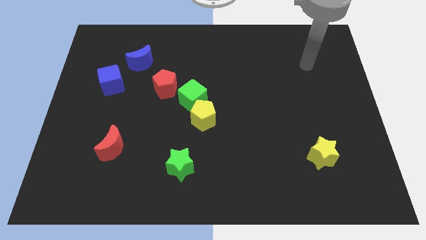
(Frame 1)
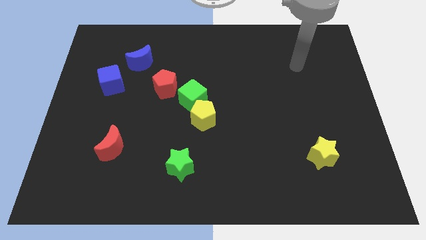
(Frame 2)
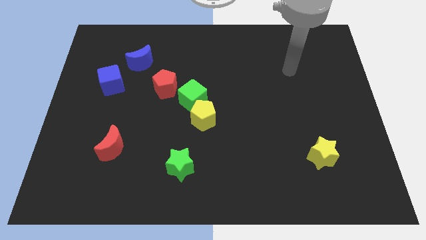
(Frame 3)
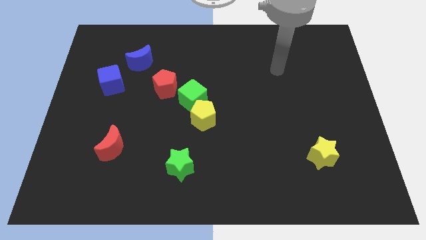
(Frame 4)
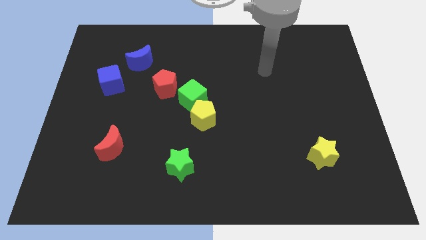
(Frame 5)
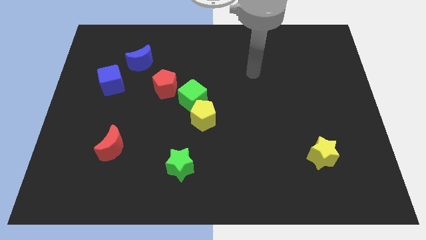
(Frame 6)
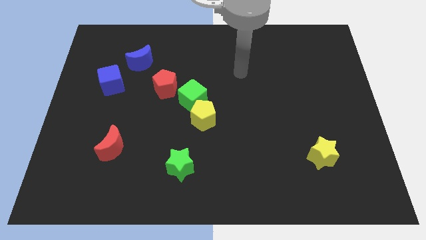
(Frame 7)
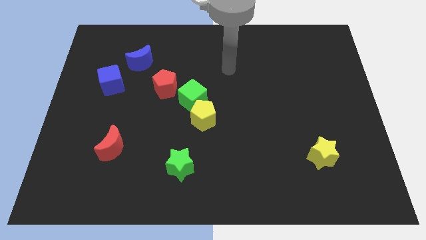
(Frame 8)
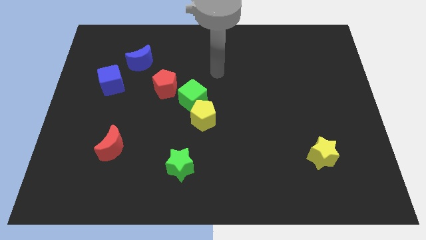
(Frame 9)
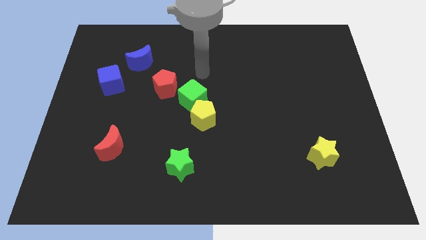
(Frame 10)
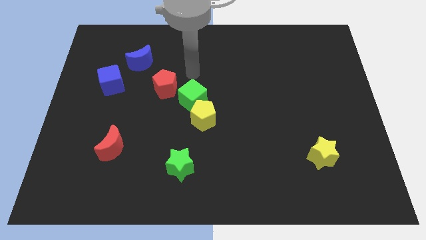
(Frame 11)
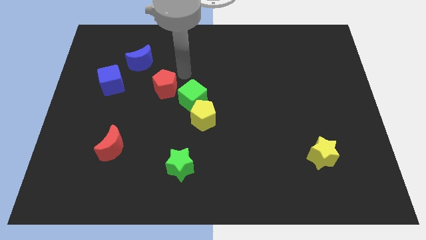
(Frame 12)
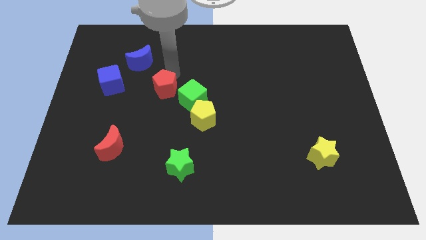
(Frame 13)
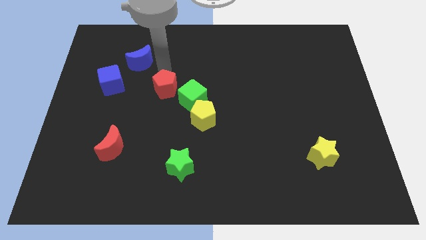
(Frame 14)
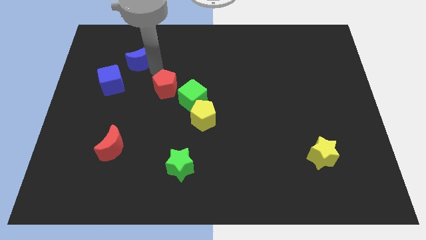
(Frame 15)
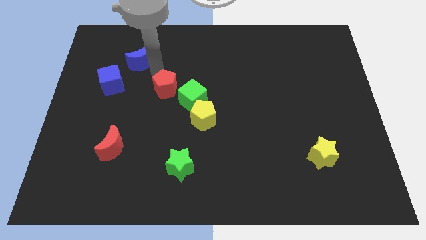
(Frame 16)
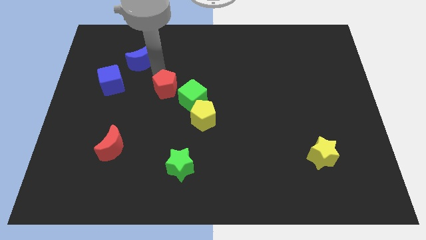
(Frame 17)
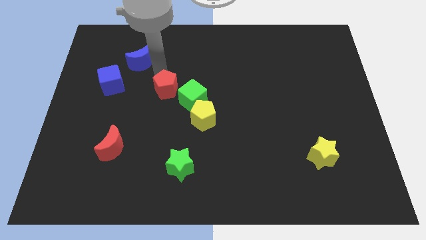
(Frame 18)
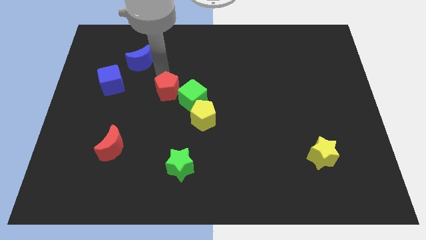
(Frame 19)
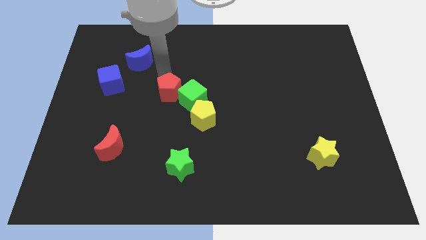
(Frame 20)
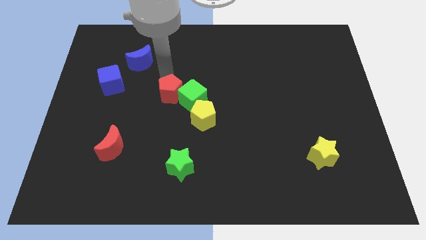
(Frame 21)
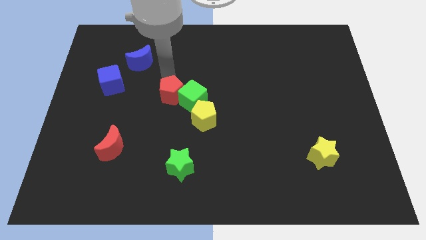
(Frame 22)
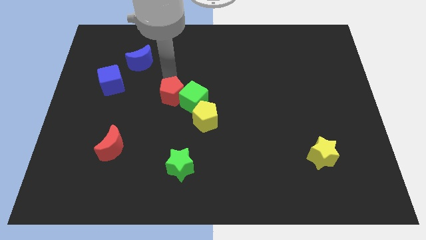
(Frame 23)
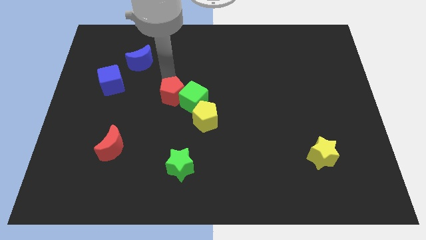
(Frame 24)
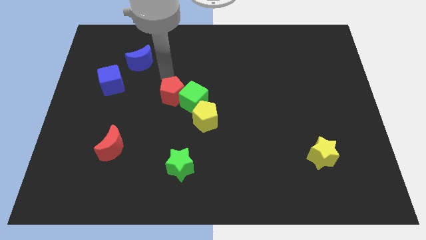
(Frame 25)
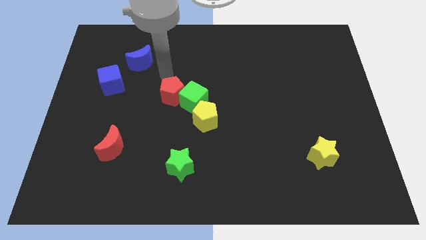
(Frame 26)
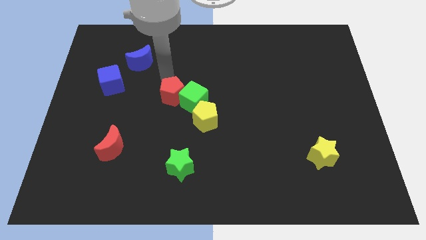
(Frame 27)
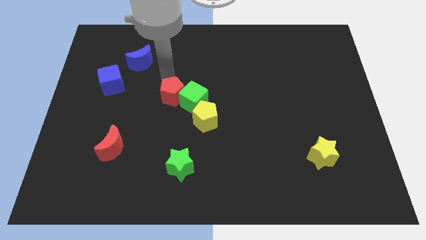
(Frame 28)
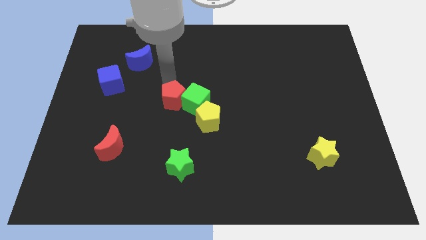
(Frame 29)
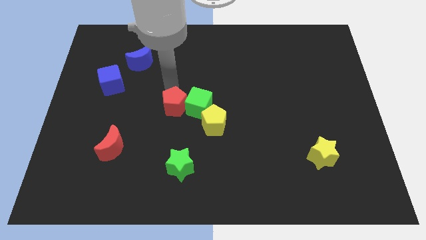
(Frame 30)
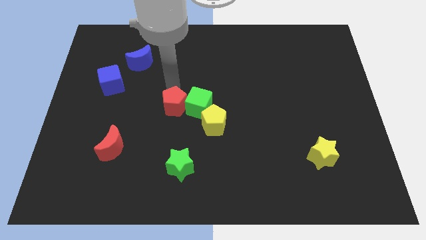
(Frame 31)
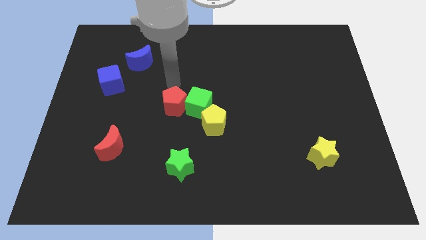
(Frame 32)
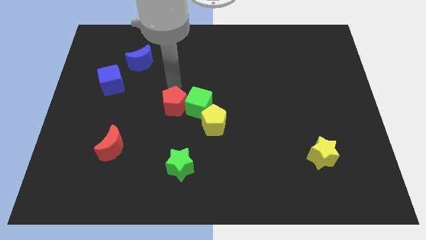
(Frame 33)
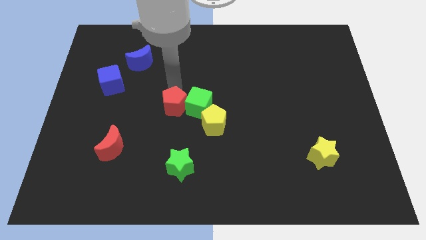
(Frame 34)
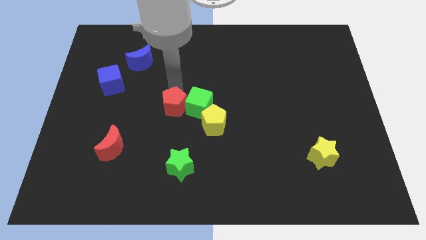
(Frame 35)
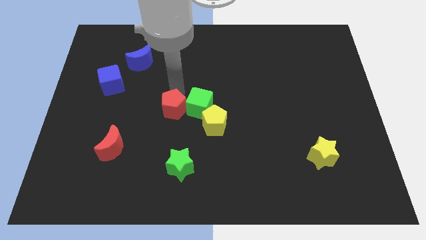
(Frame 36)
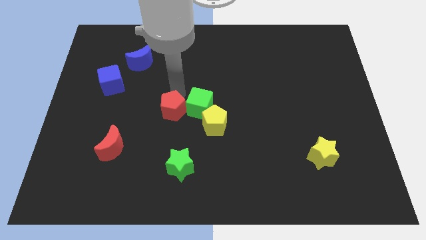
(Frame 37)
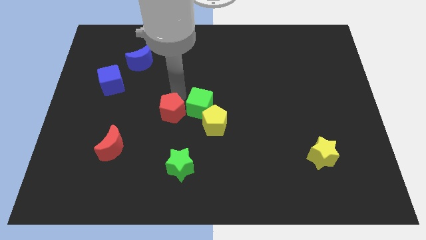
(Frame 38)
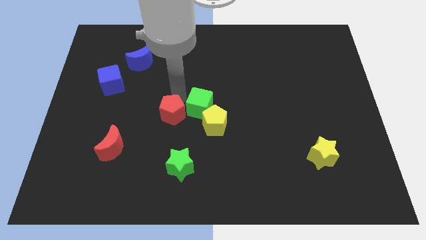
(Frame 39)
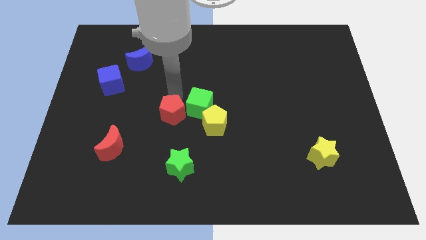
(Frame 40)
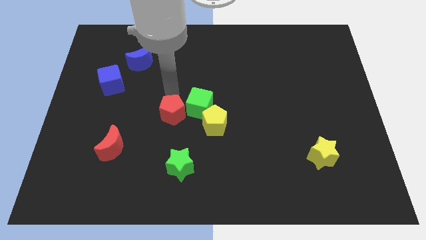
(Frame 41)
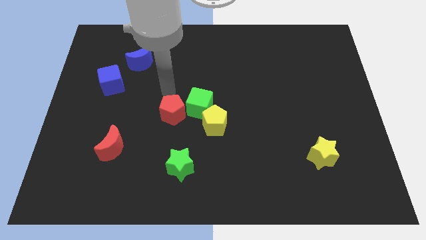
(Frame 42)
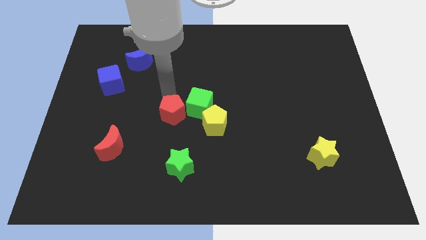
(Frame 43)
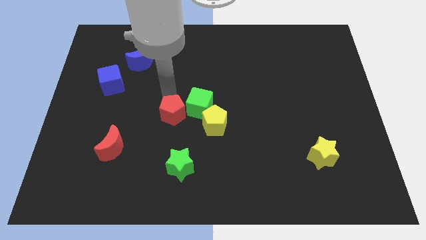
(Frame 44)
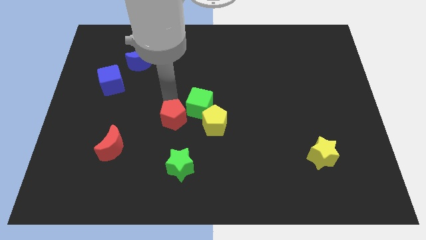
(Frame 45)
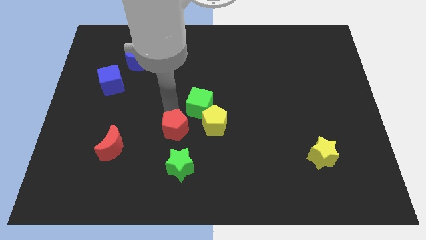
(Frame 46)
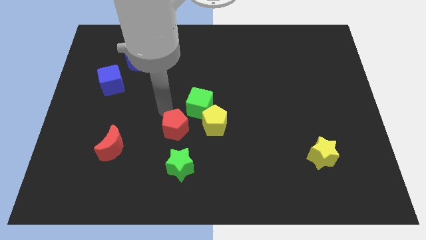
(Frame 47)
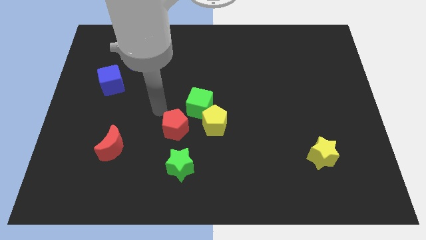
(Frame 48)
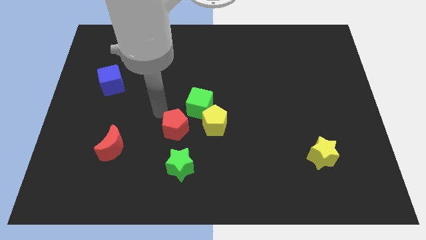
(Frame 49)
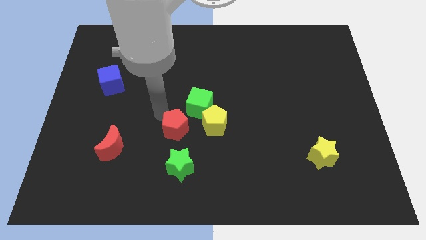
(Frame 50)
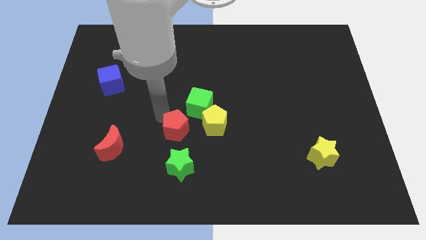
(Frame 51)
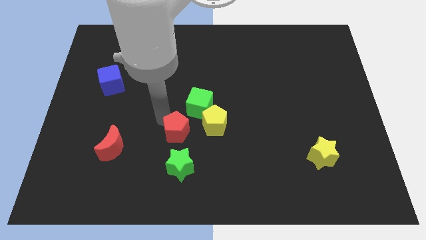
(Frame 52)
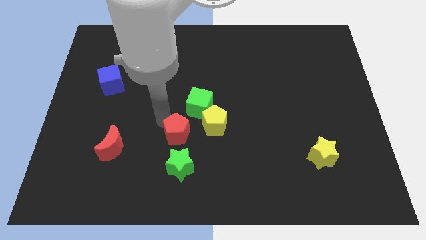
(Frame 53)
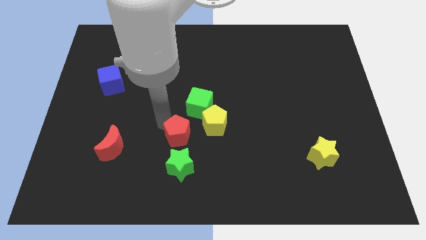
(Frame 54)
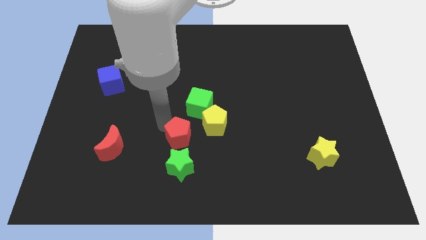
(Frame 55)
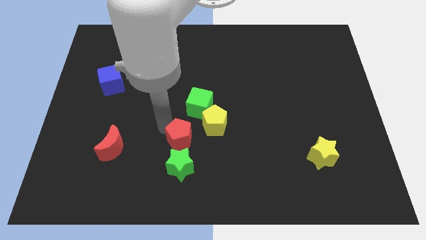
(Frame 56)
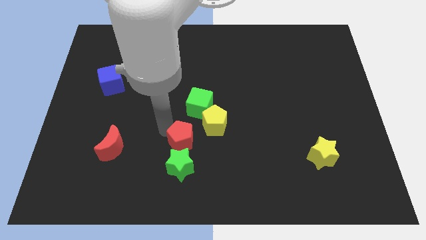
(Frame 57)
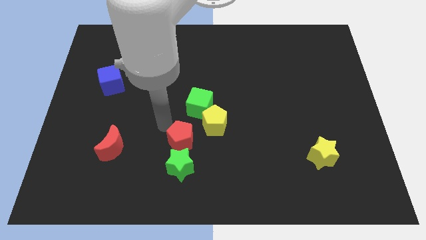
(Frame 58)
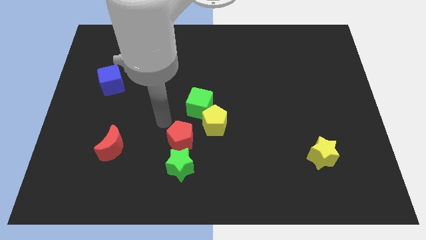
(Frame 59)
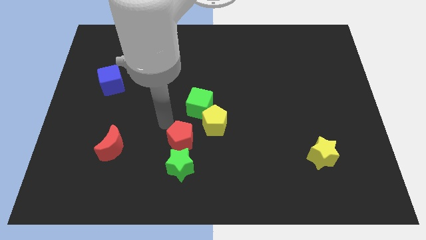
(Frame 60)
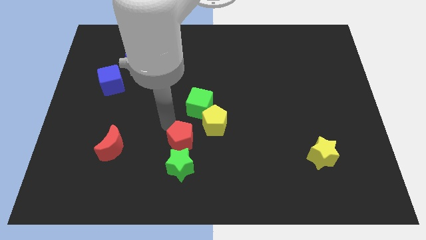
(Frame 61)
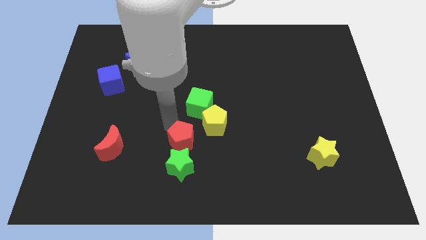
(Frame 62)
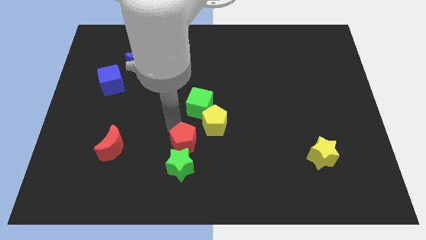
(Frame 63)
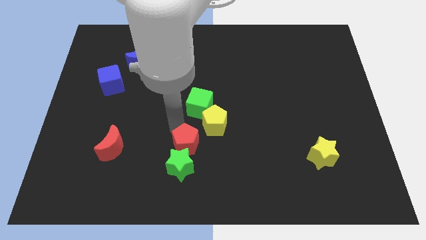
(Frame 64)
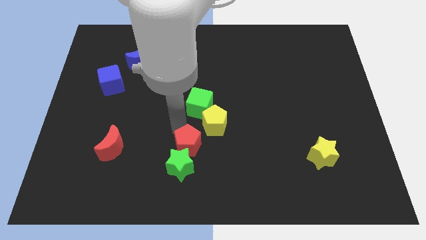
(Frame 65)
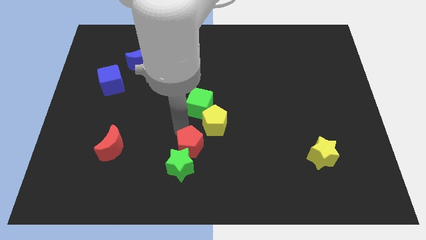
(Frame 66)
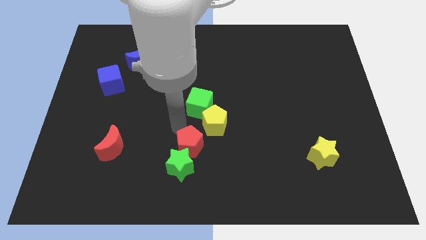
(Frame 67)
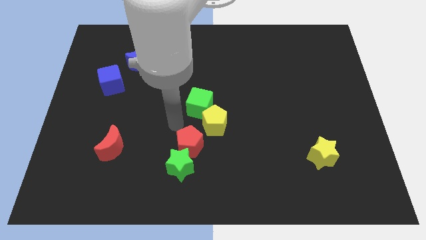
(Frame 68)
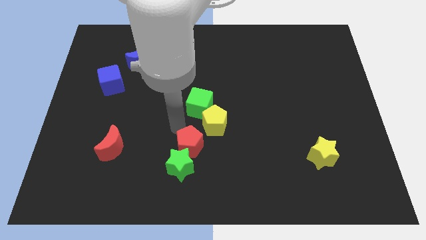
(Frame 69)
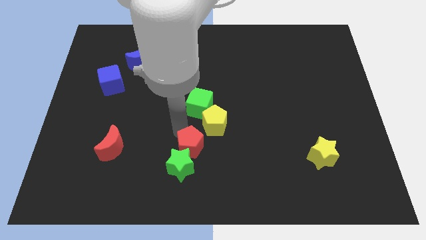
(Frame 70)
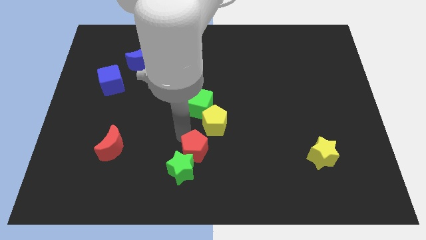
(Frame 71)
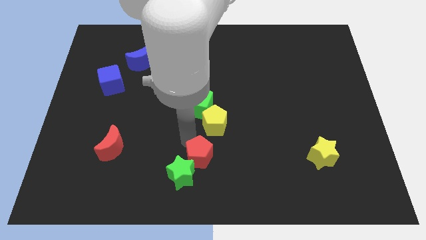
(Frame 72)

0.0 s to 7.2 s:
move the red pentagon to the bottom side
